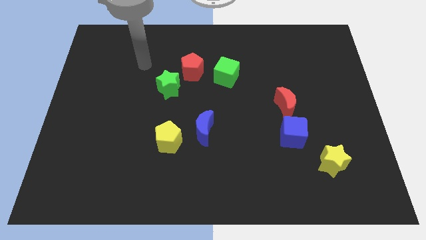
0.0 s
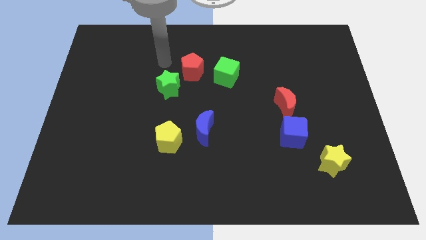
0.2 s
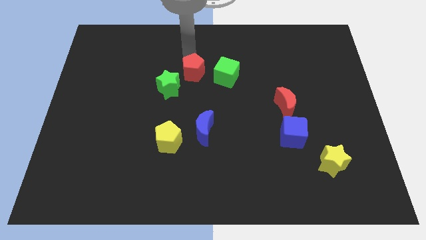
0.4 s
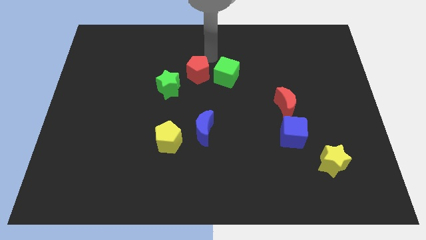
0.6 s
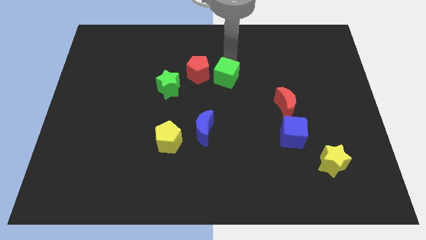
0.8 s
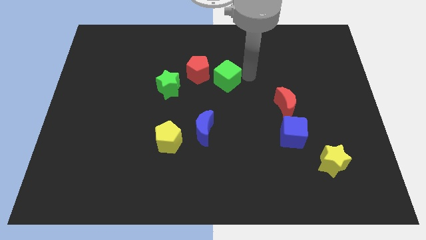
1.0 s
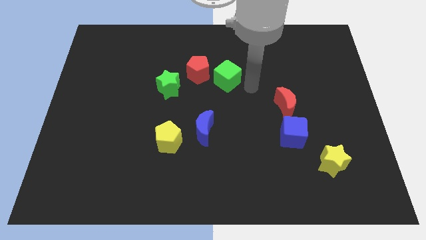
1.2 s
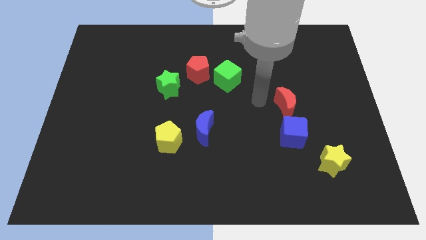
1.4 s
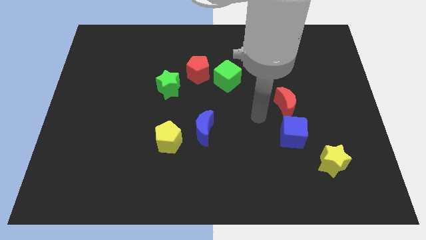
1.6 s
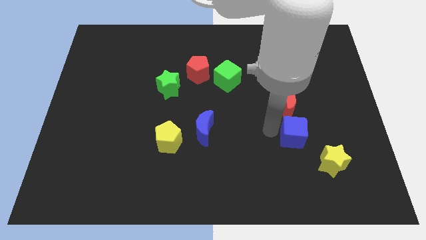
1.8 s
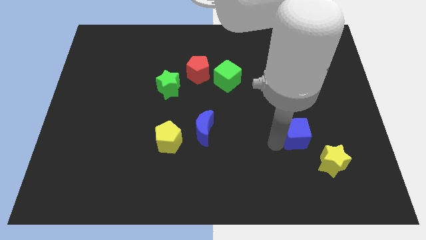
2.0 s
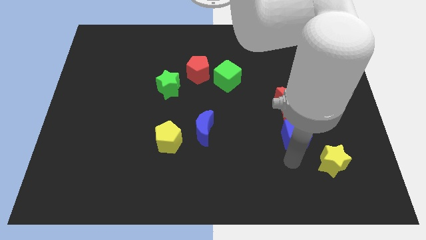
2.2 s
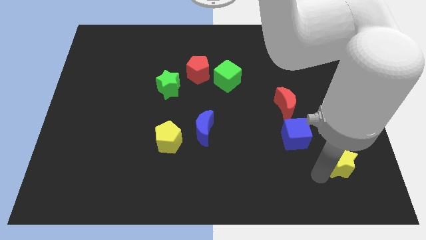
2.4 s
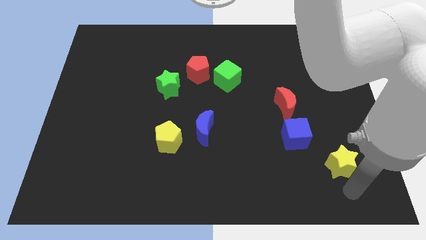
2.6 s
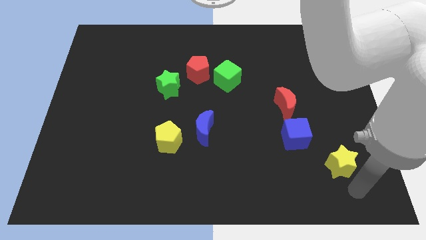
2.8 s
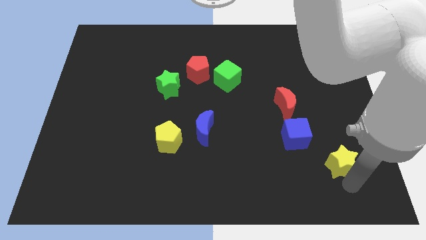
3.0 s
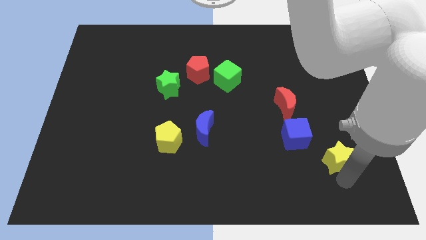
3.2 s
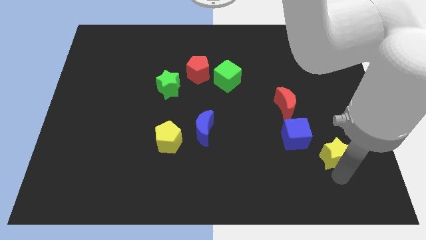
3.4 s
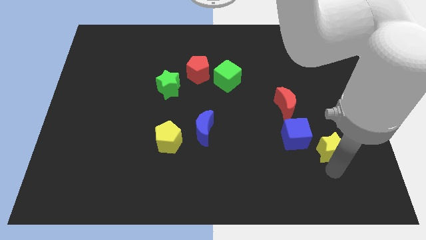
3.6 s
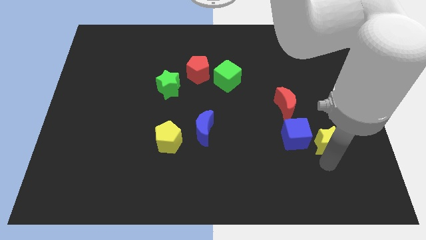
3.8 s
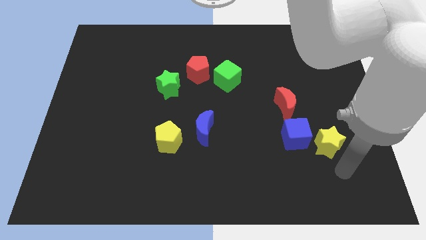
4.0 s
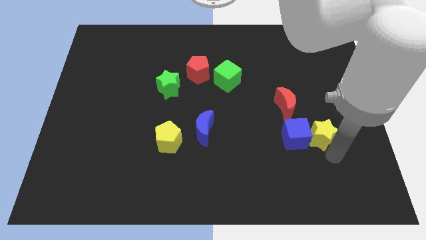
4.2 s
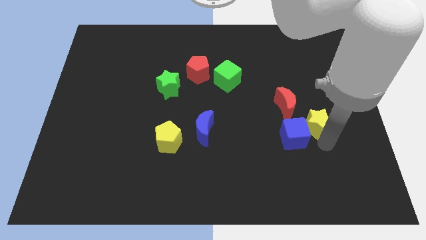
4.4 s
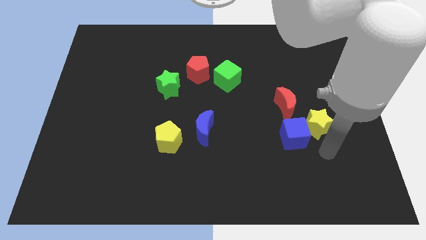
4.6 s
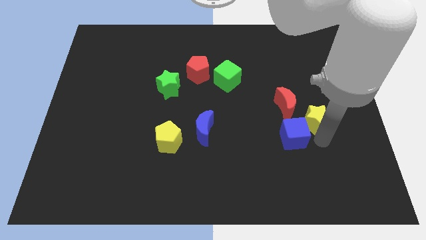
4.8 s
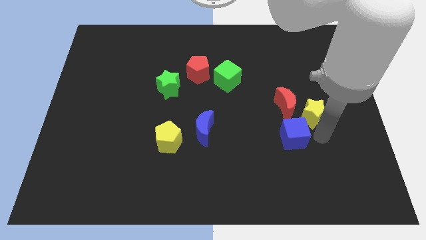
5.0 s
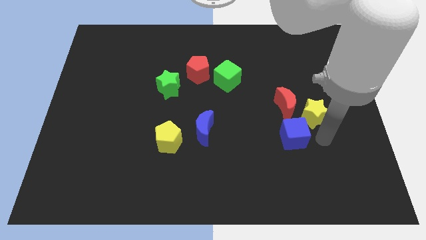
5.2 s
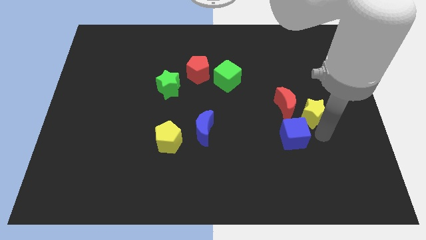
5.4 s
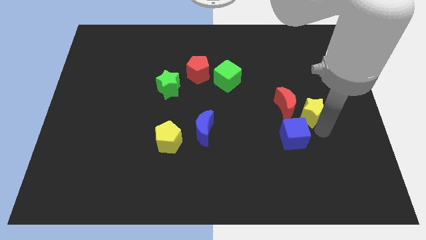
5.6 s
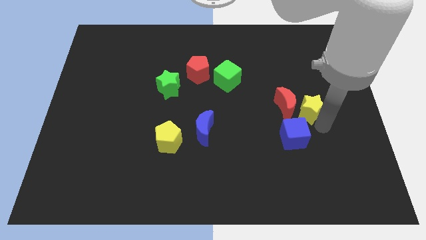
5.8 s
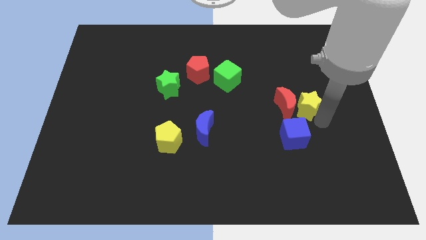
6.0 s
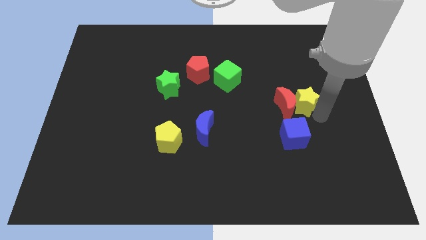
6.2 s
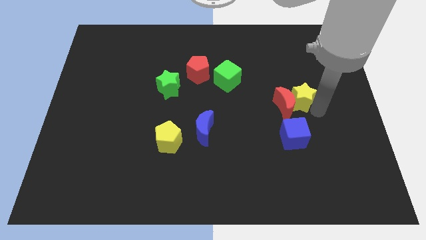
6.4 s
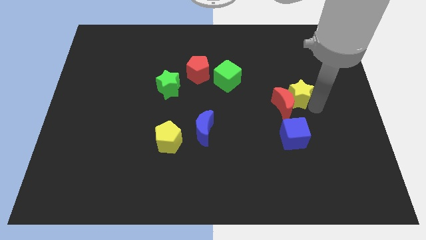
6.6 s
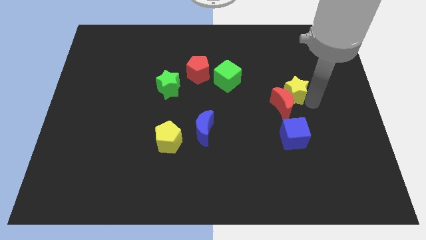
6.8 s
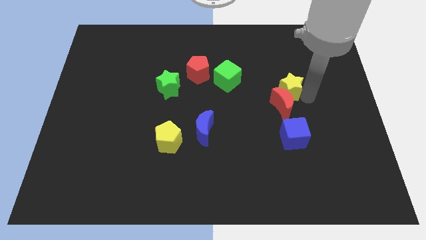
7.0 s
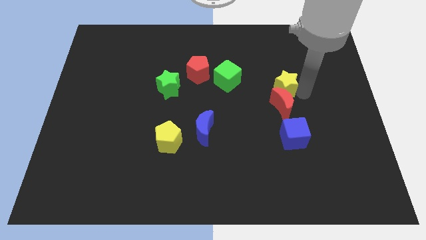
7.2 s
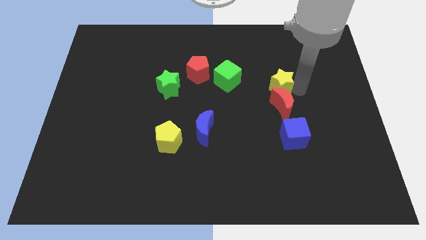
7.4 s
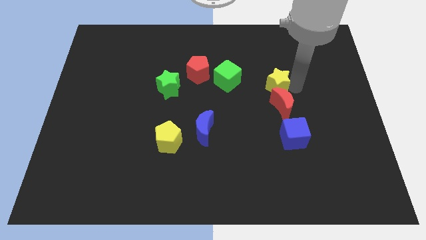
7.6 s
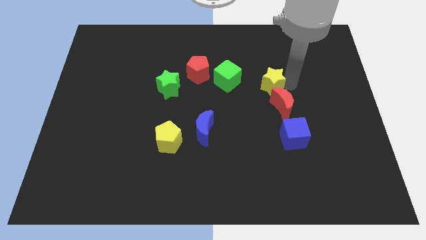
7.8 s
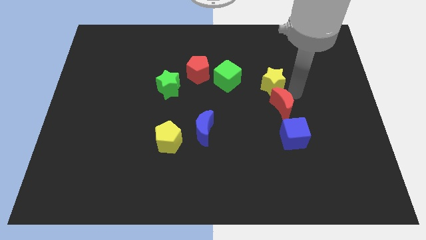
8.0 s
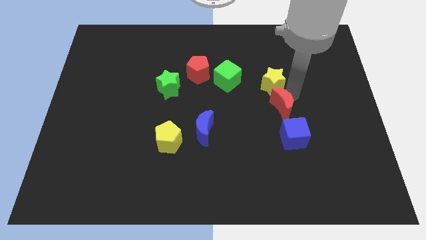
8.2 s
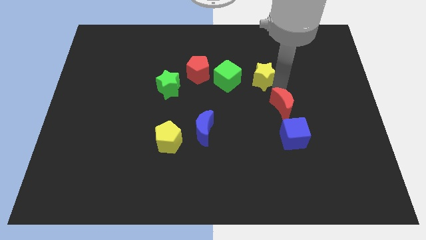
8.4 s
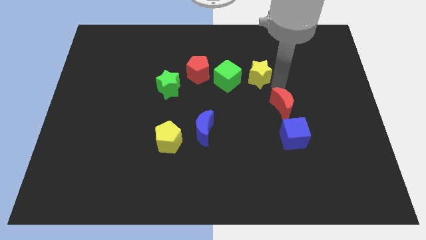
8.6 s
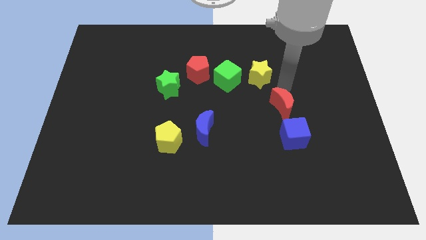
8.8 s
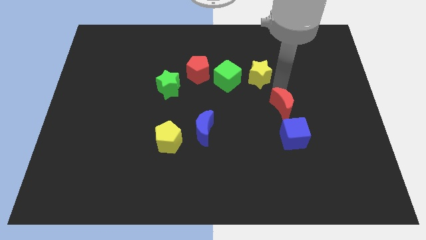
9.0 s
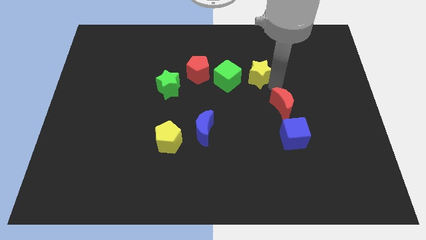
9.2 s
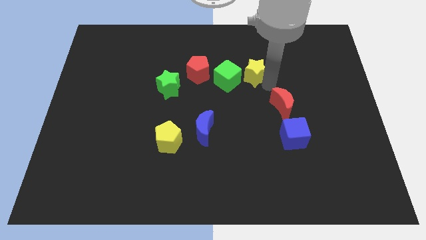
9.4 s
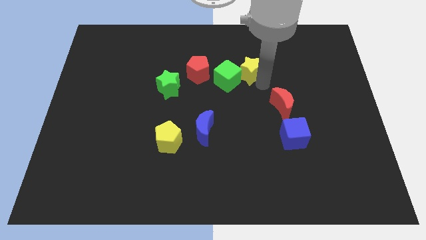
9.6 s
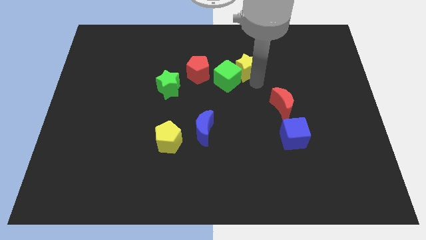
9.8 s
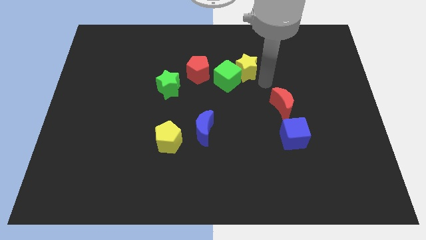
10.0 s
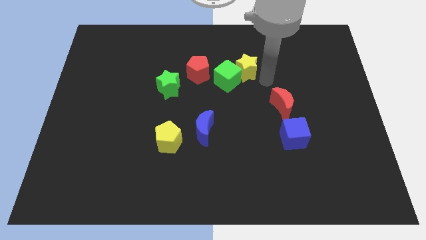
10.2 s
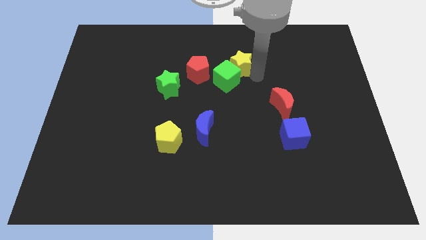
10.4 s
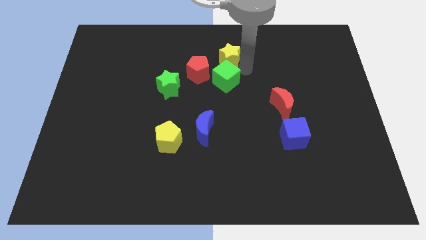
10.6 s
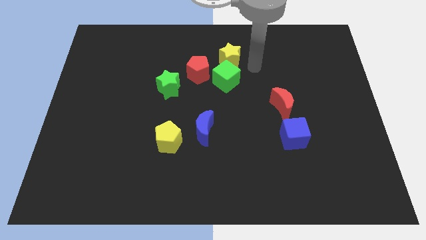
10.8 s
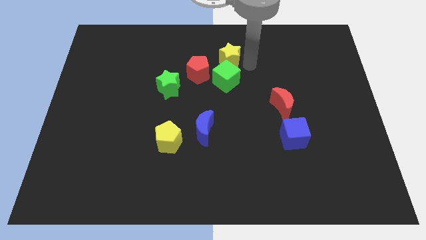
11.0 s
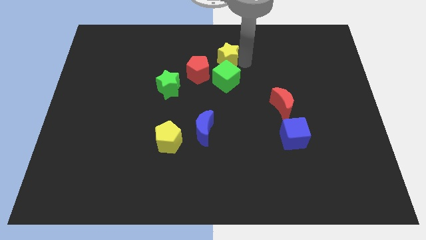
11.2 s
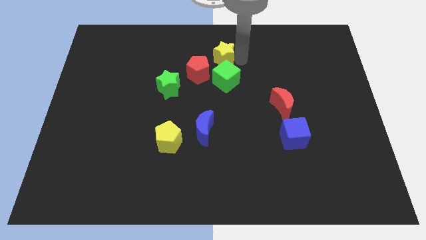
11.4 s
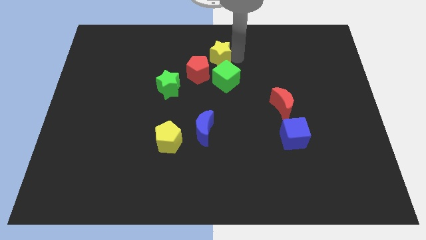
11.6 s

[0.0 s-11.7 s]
move the yellow star to the top side
